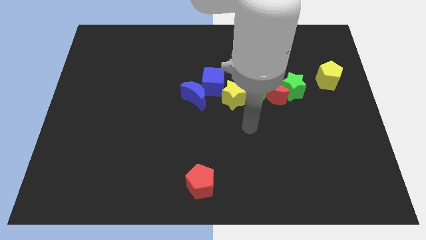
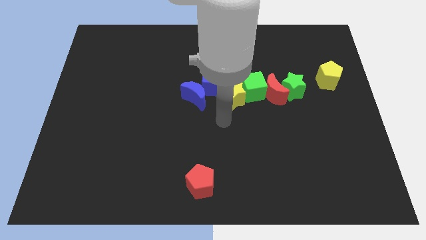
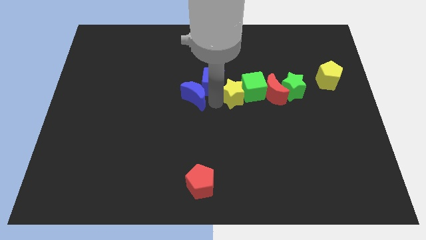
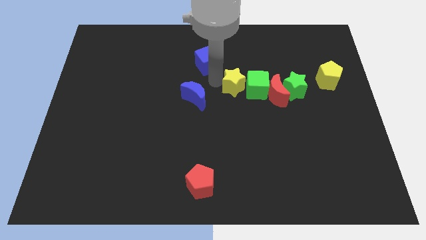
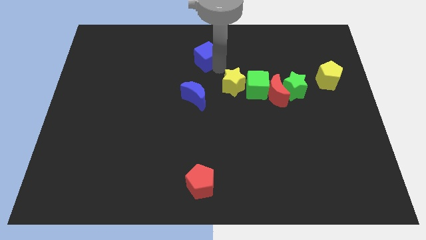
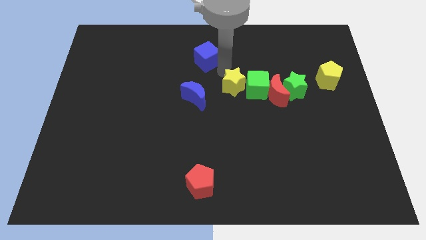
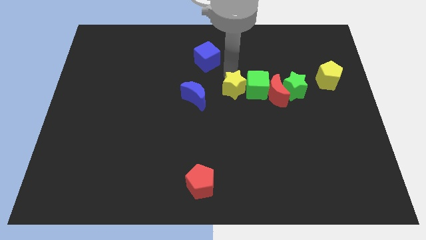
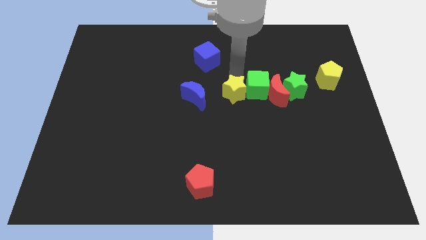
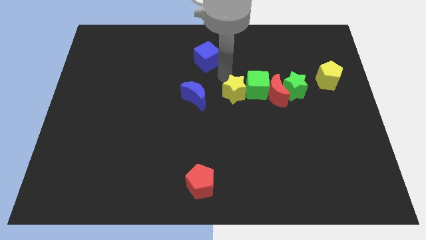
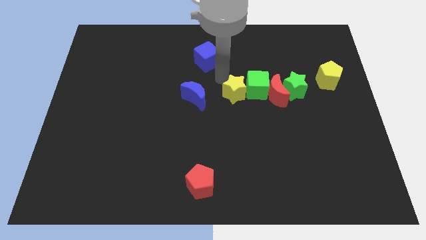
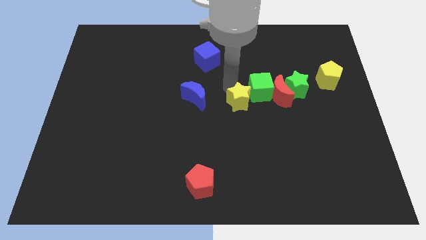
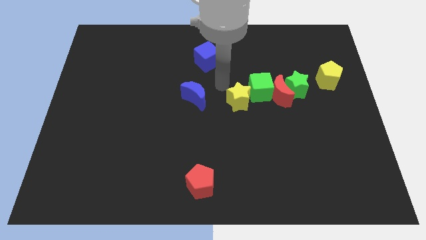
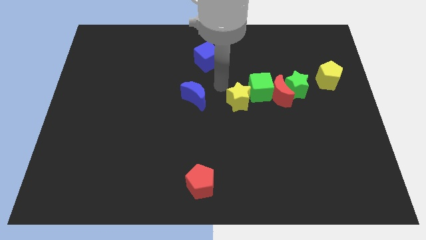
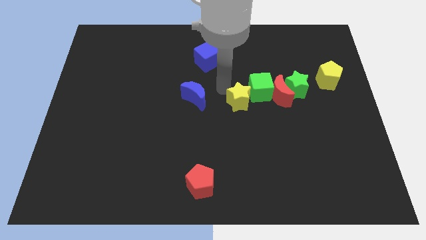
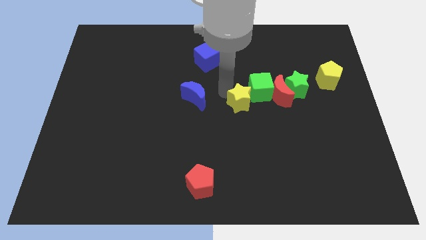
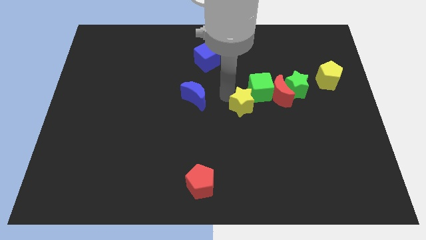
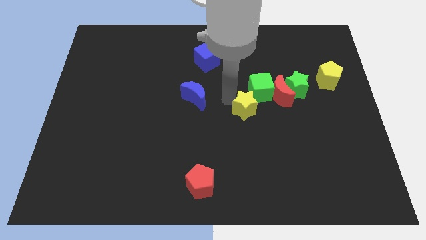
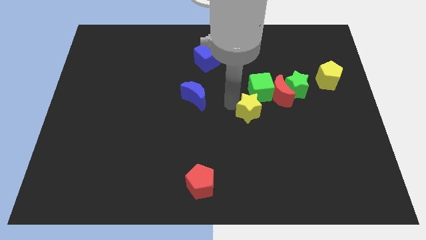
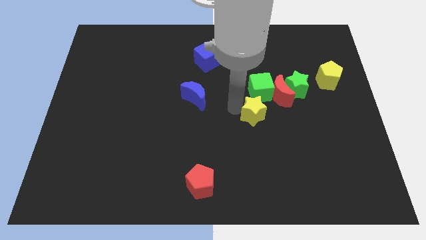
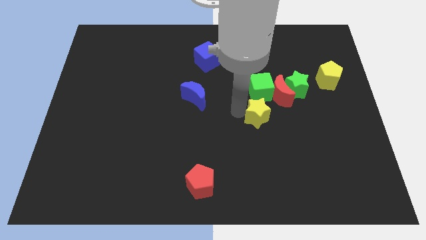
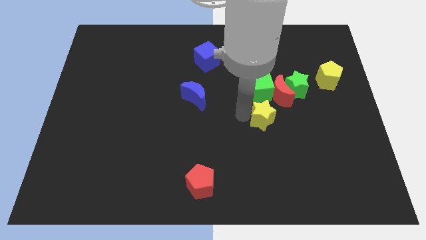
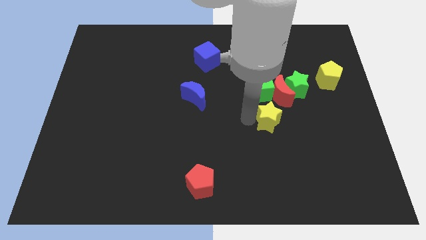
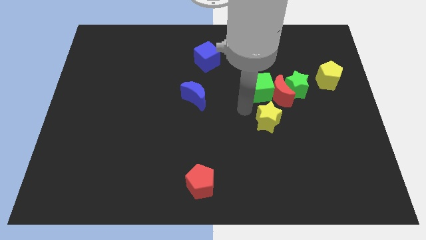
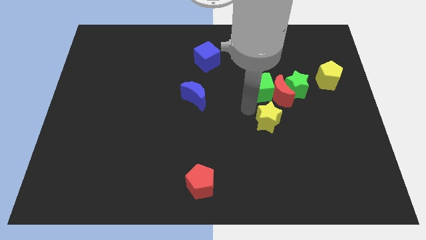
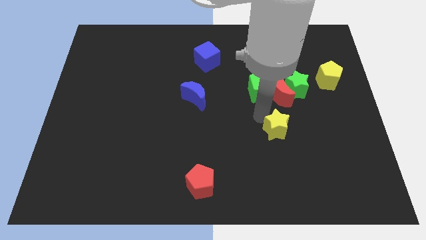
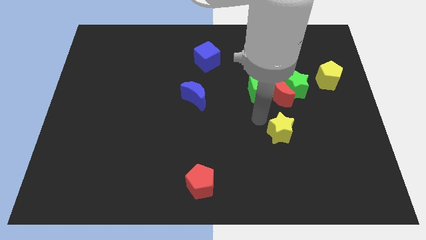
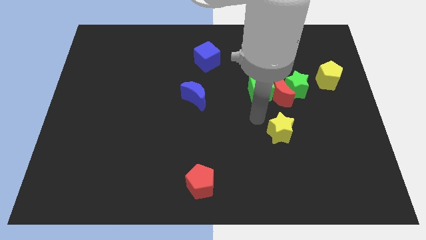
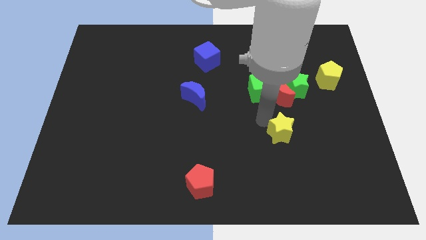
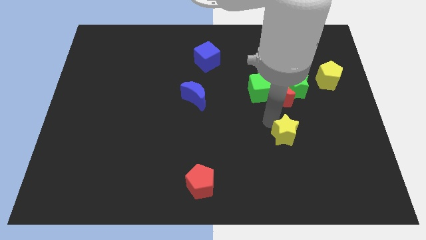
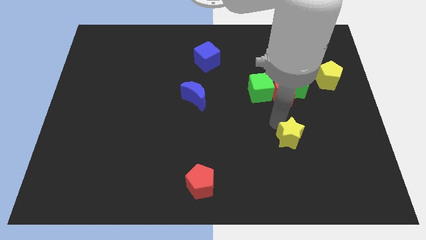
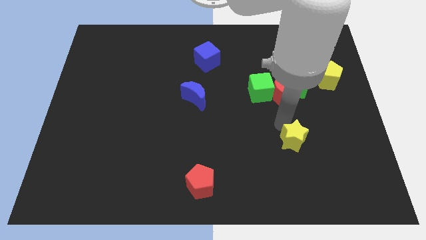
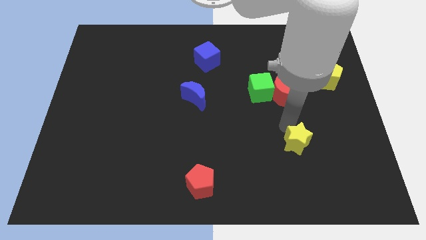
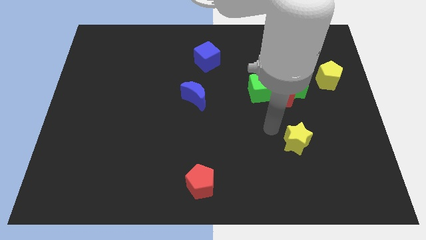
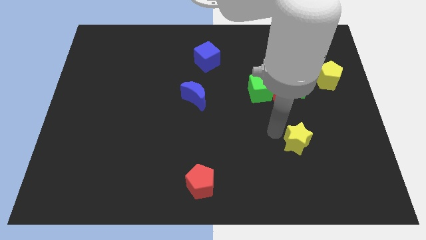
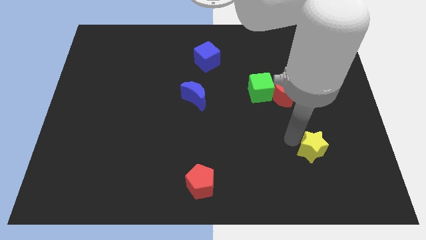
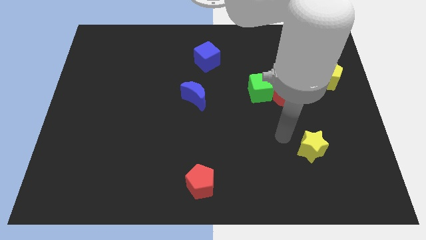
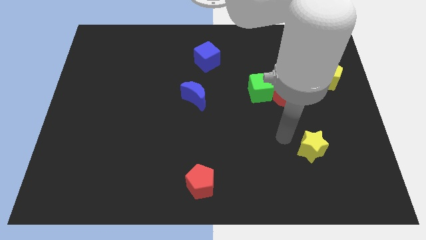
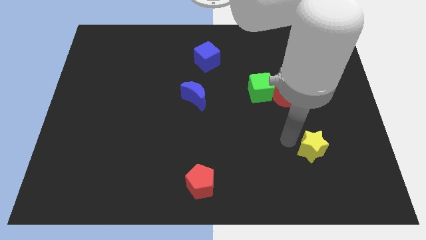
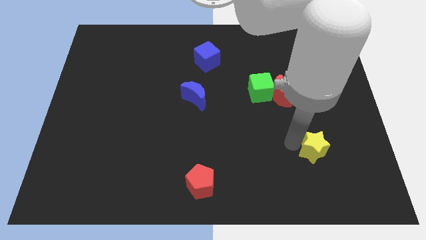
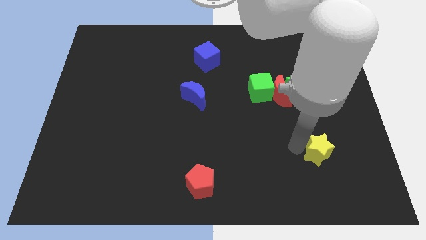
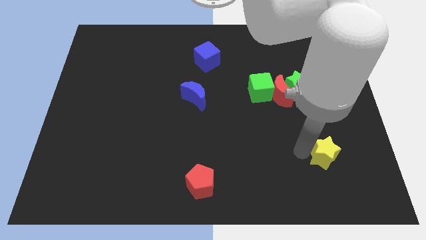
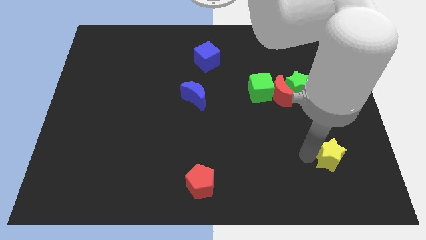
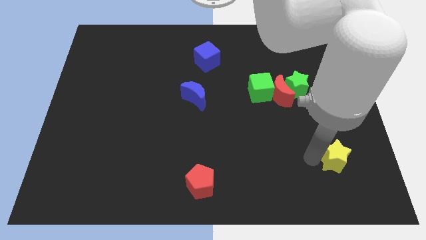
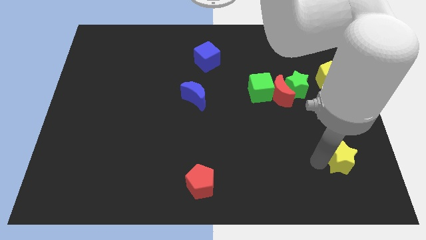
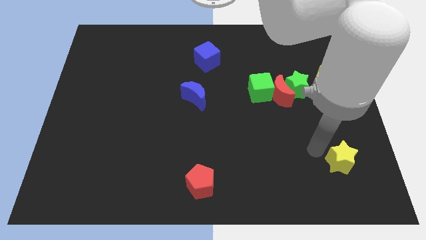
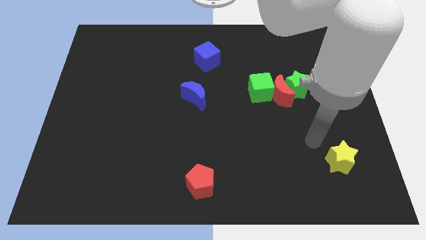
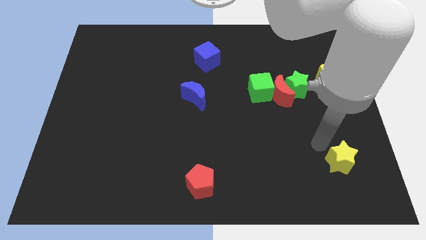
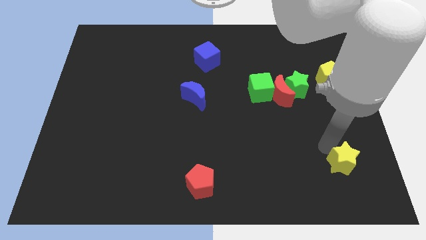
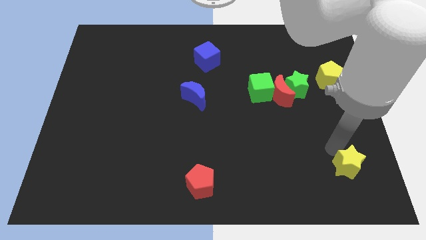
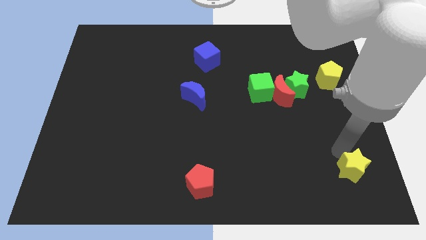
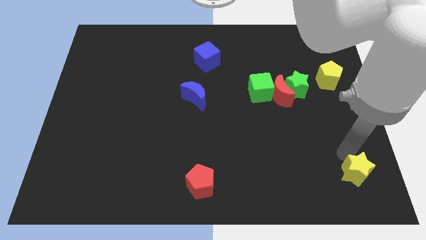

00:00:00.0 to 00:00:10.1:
move the yellow star to the lower right corner

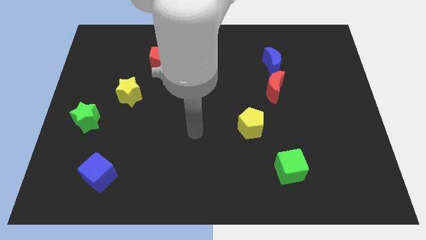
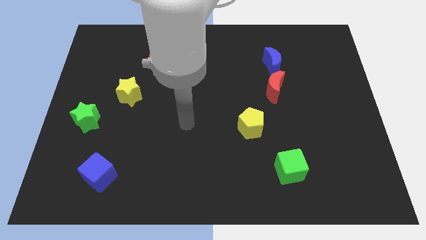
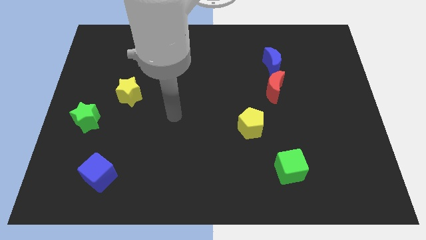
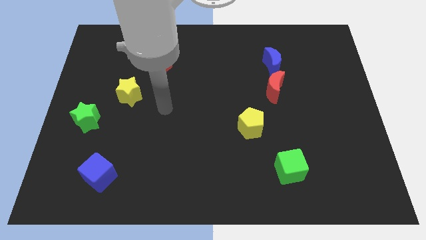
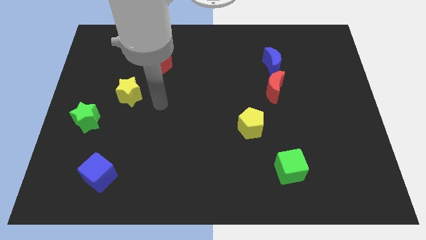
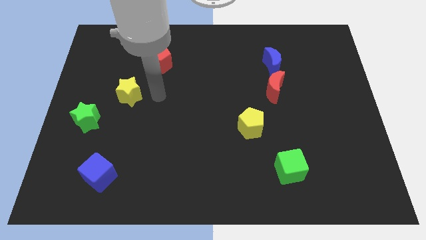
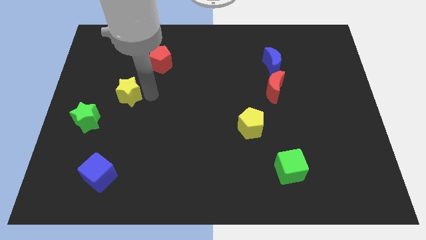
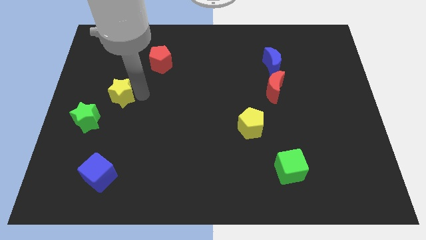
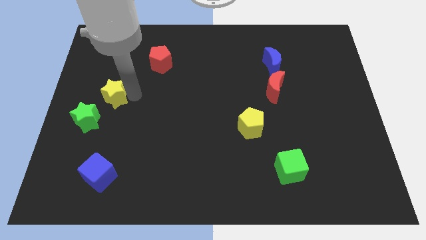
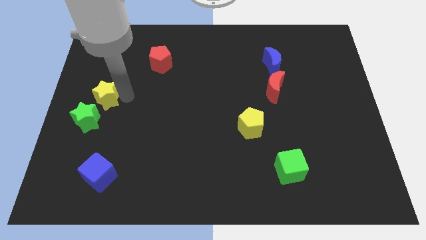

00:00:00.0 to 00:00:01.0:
move the yellow star to the left side
